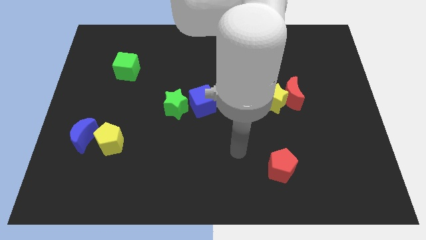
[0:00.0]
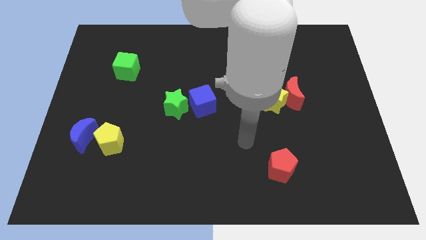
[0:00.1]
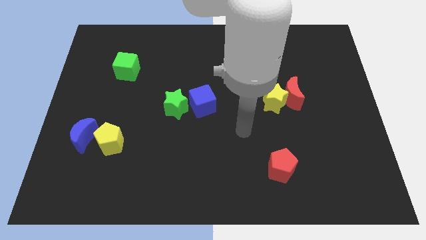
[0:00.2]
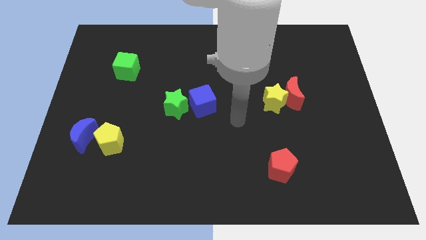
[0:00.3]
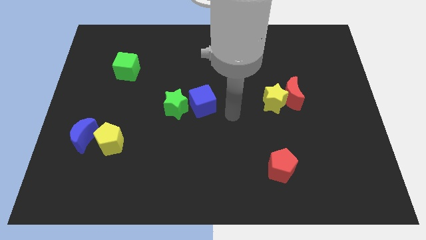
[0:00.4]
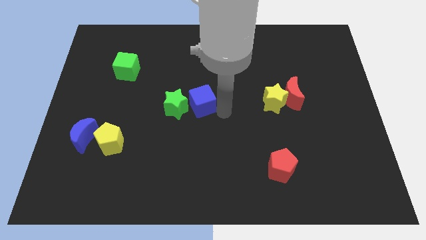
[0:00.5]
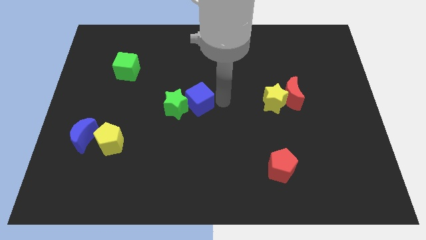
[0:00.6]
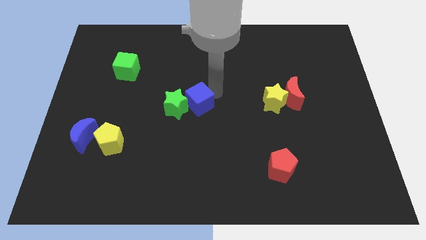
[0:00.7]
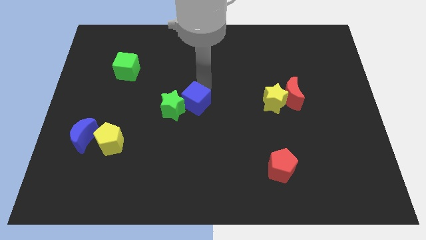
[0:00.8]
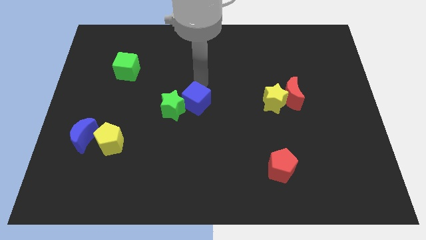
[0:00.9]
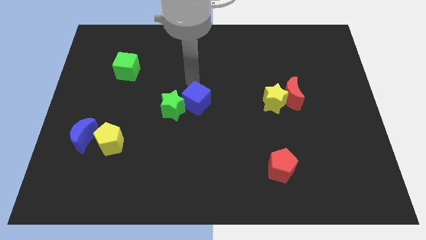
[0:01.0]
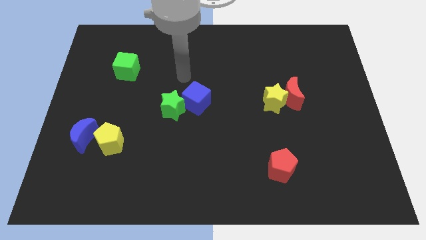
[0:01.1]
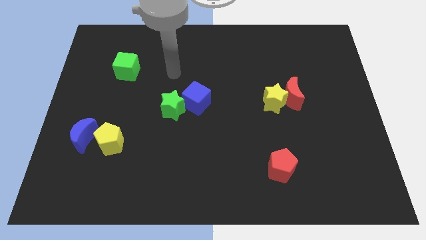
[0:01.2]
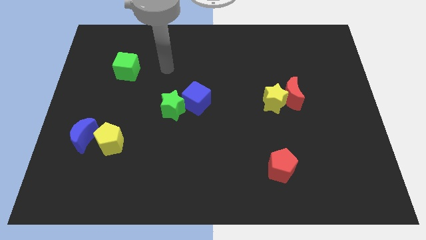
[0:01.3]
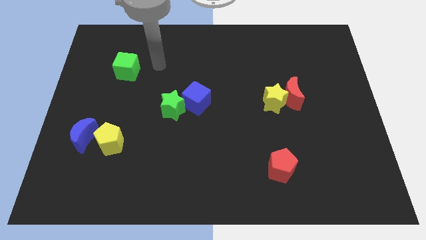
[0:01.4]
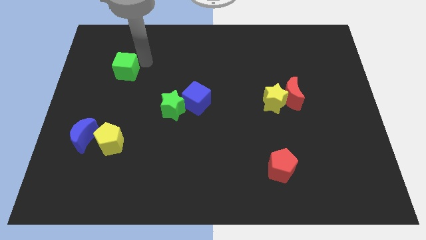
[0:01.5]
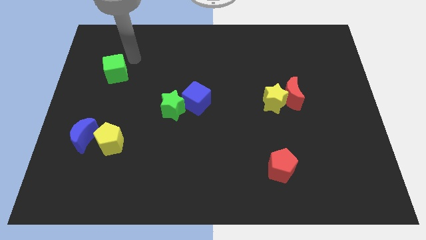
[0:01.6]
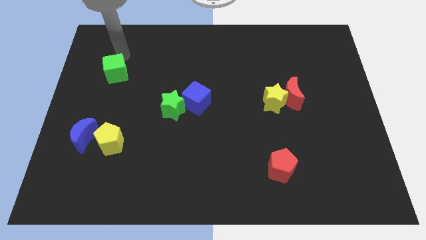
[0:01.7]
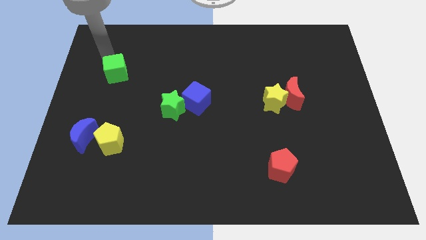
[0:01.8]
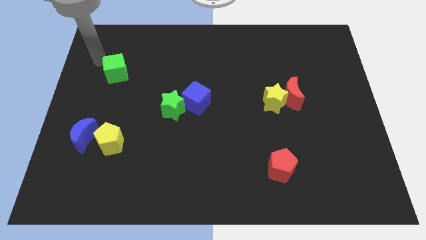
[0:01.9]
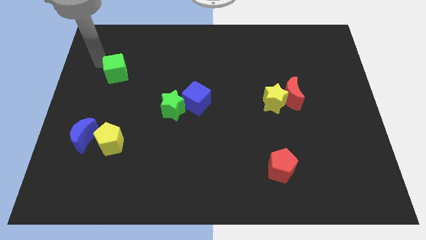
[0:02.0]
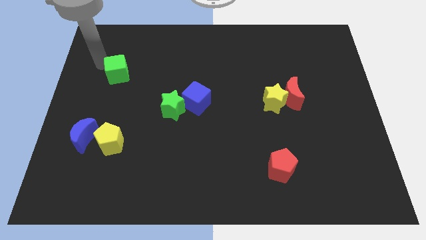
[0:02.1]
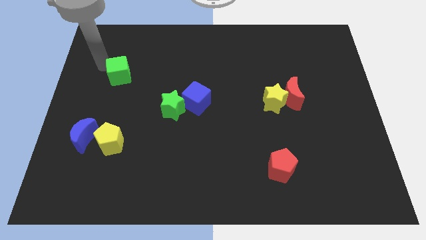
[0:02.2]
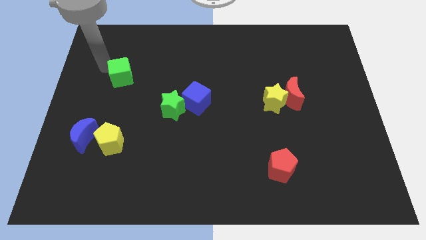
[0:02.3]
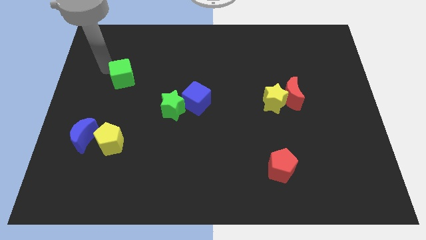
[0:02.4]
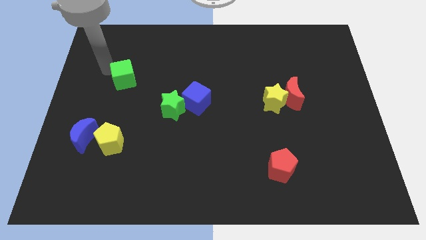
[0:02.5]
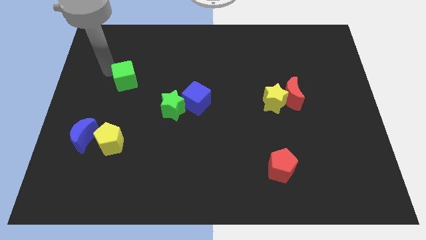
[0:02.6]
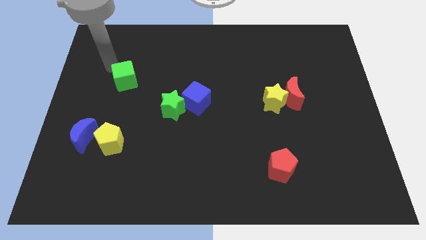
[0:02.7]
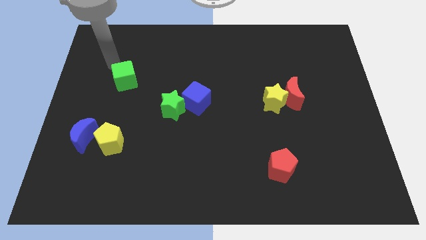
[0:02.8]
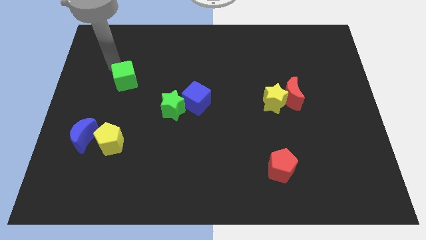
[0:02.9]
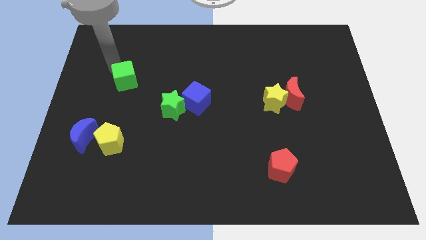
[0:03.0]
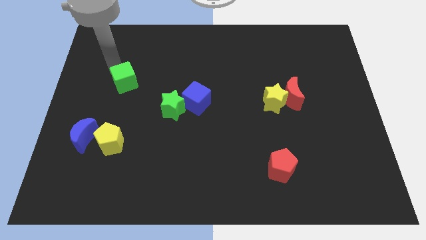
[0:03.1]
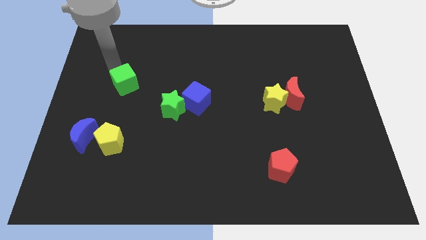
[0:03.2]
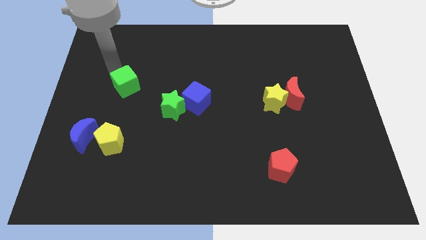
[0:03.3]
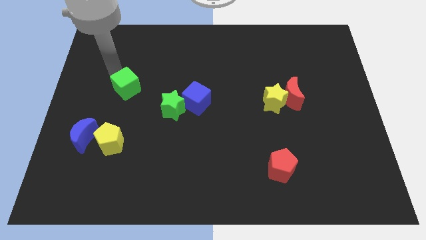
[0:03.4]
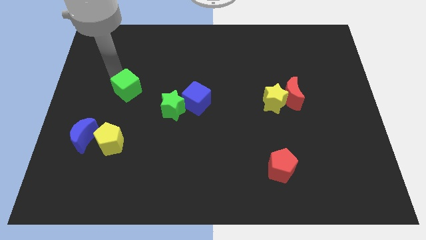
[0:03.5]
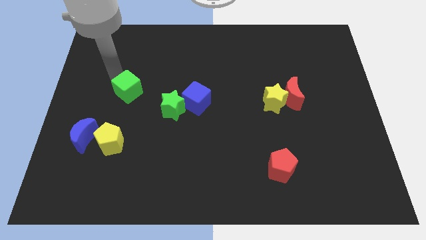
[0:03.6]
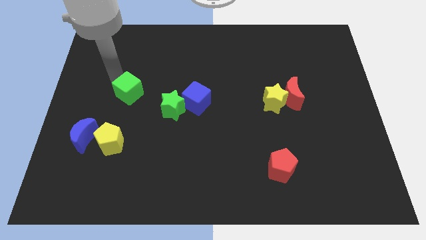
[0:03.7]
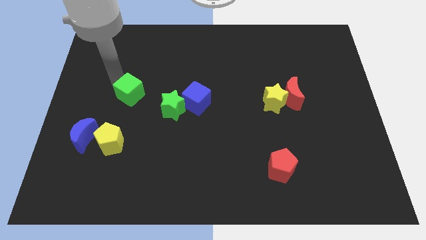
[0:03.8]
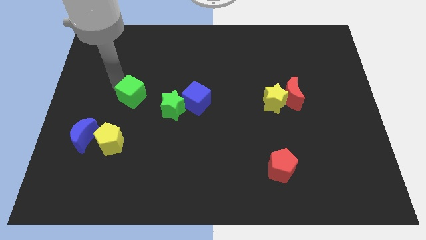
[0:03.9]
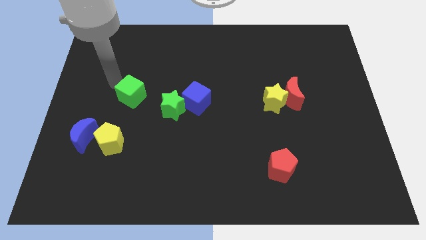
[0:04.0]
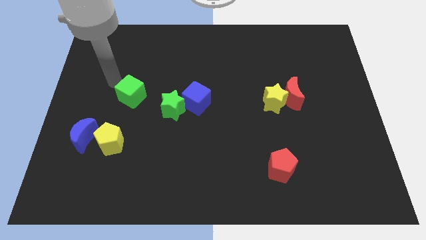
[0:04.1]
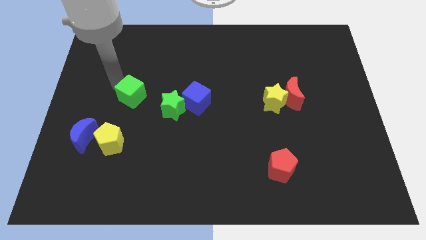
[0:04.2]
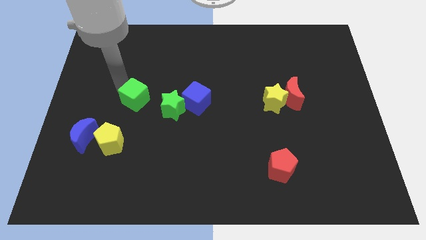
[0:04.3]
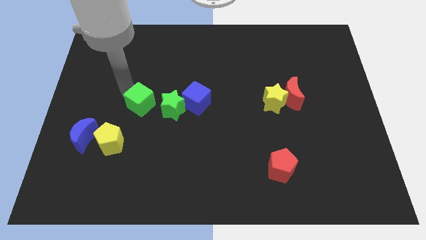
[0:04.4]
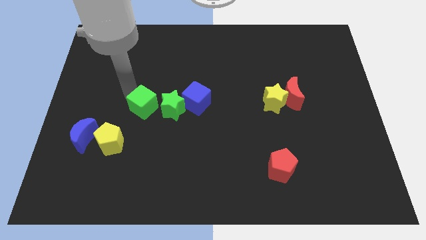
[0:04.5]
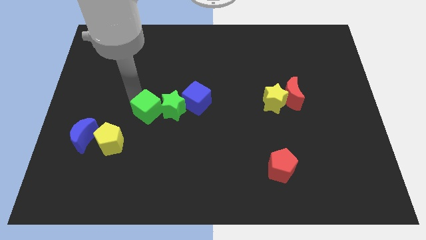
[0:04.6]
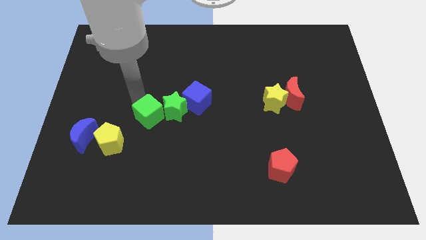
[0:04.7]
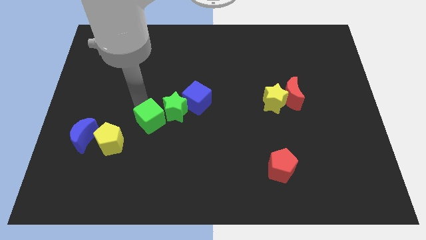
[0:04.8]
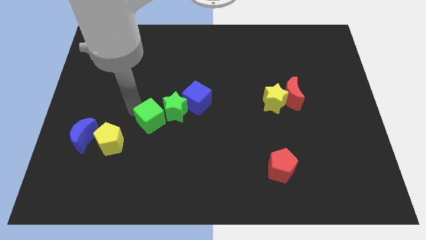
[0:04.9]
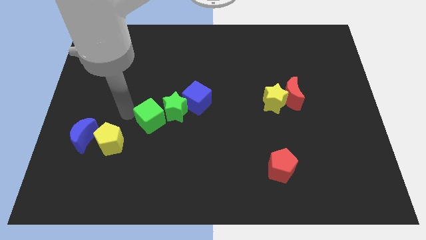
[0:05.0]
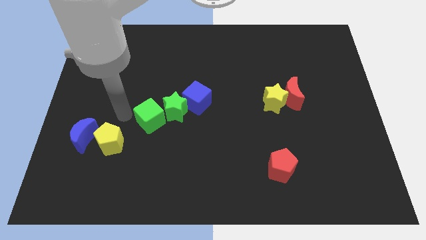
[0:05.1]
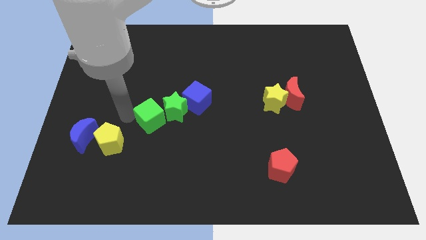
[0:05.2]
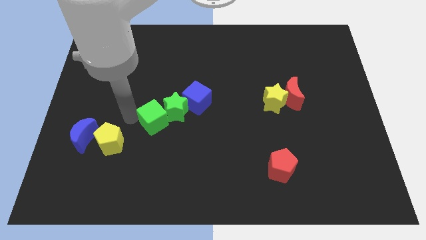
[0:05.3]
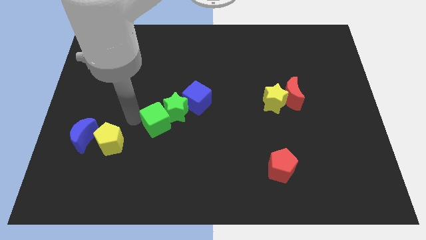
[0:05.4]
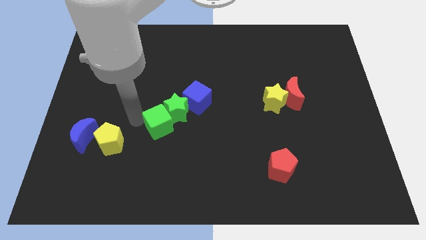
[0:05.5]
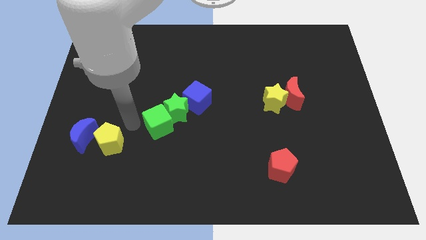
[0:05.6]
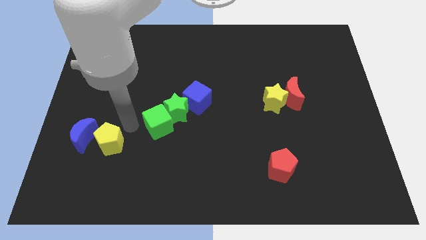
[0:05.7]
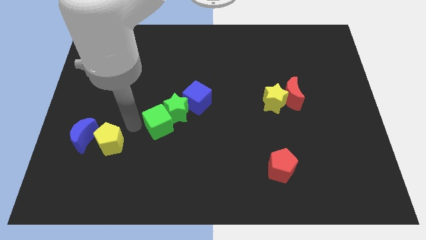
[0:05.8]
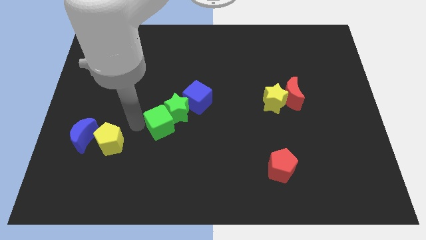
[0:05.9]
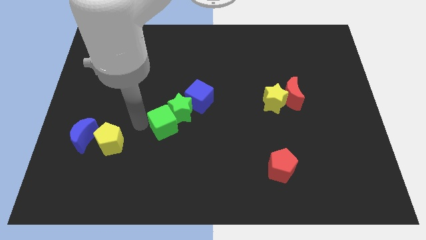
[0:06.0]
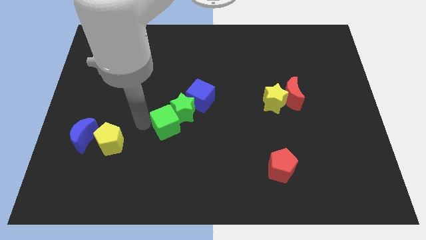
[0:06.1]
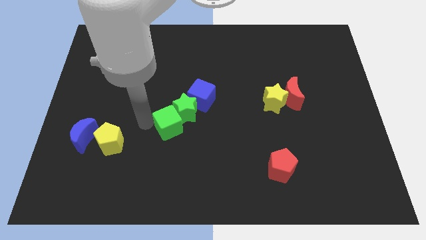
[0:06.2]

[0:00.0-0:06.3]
move the green cube diagonally down and to the right

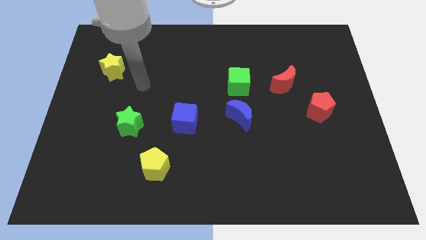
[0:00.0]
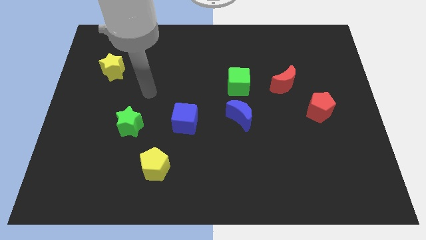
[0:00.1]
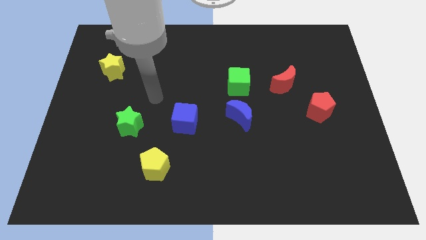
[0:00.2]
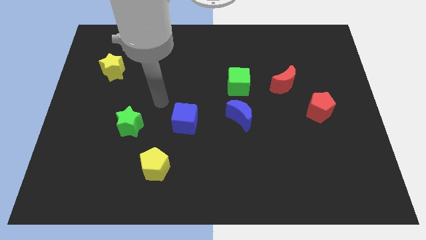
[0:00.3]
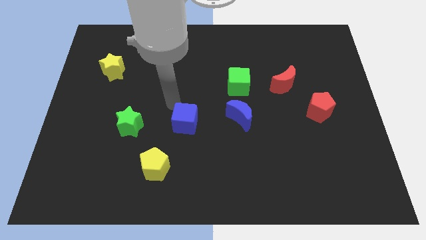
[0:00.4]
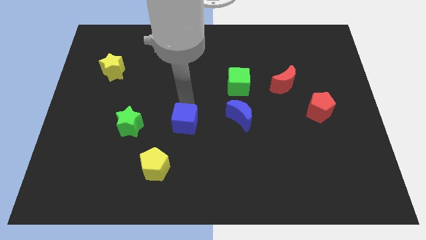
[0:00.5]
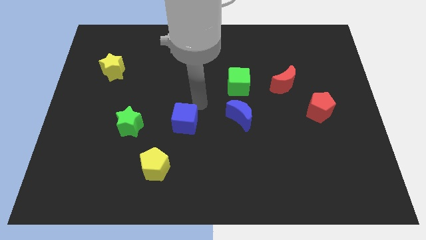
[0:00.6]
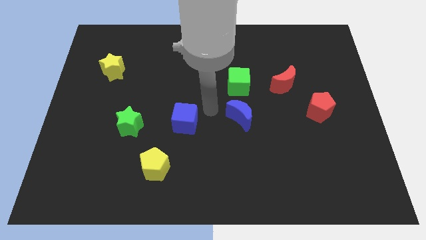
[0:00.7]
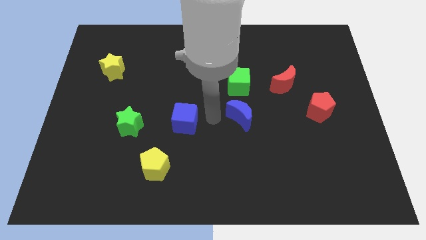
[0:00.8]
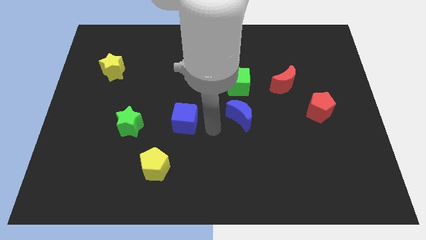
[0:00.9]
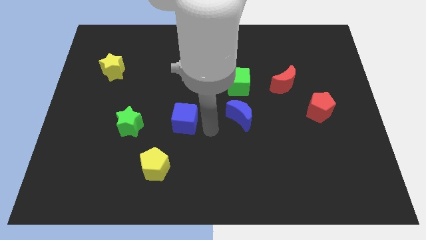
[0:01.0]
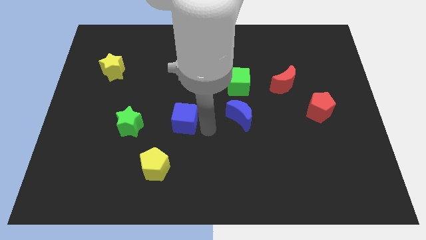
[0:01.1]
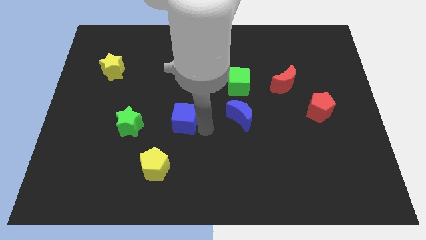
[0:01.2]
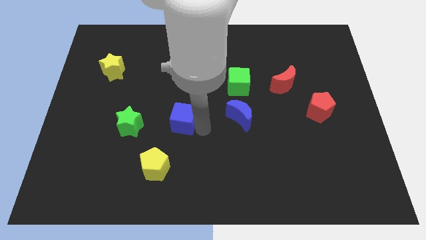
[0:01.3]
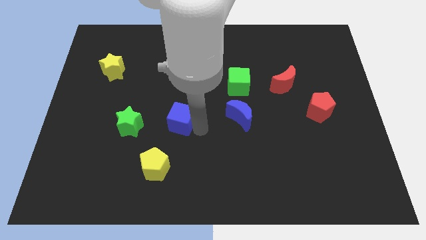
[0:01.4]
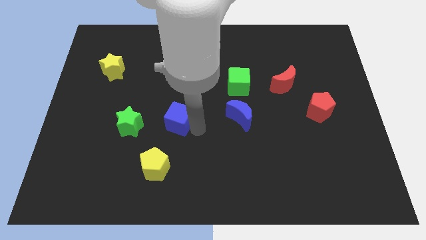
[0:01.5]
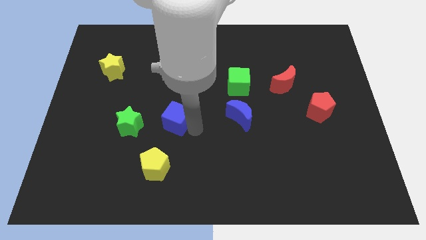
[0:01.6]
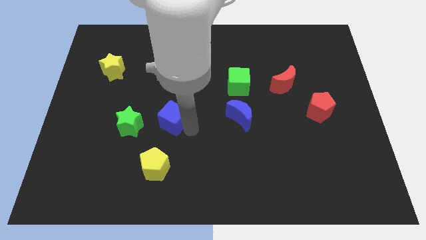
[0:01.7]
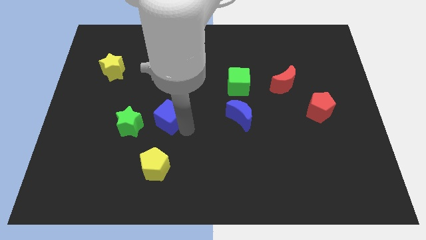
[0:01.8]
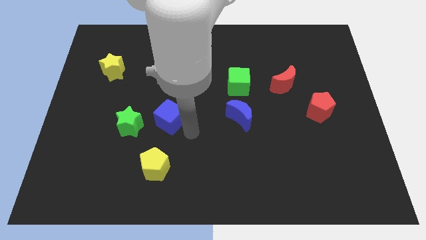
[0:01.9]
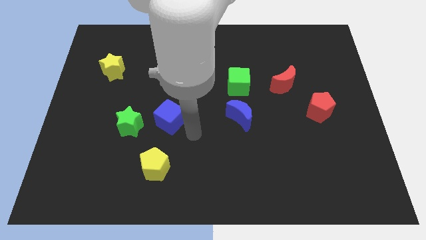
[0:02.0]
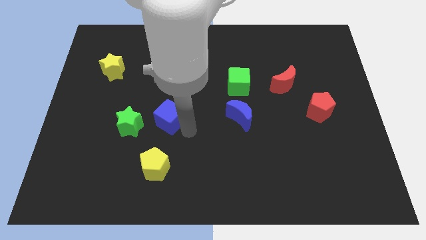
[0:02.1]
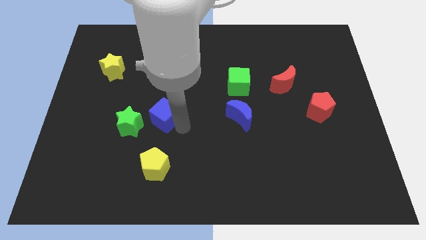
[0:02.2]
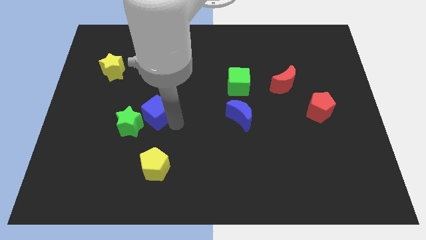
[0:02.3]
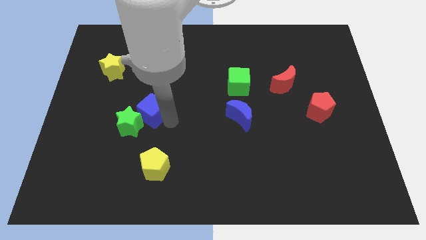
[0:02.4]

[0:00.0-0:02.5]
slide the blue cube to the left a bit
